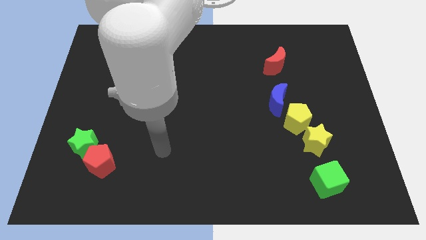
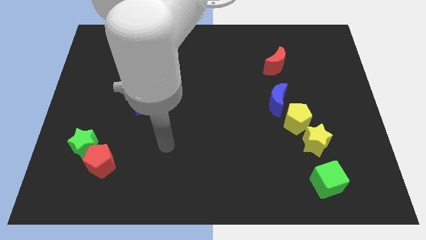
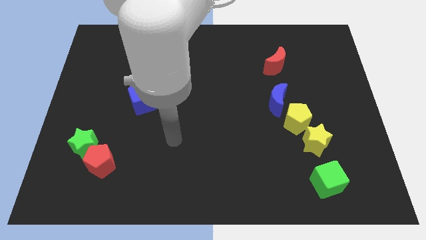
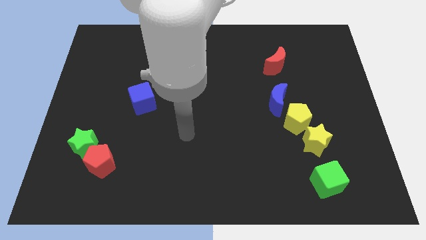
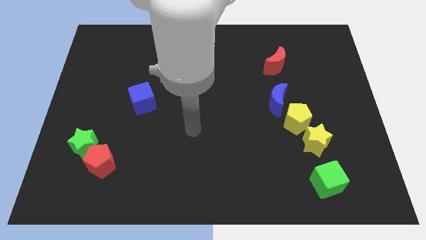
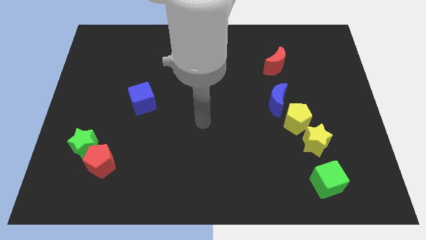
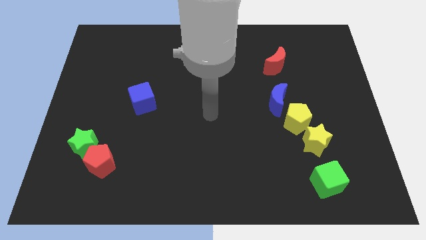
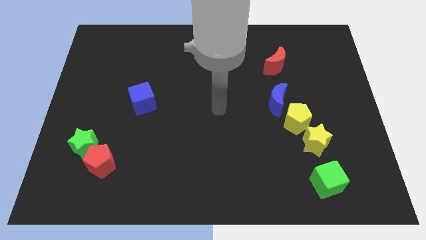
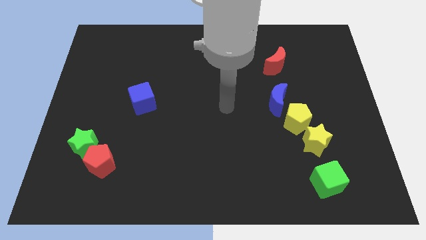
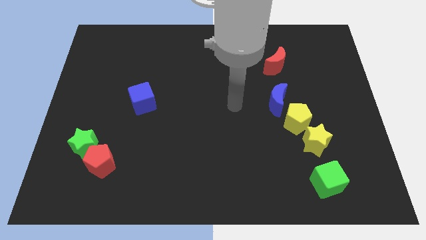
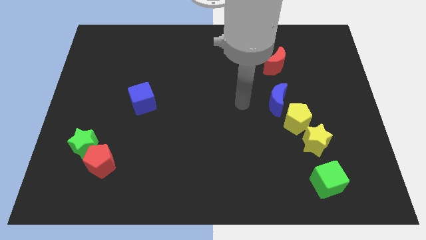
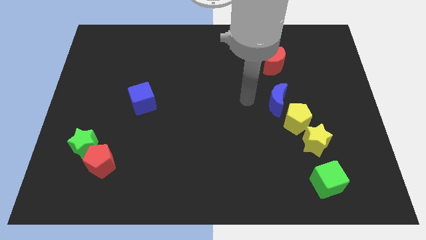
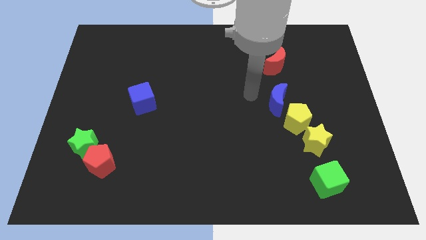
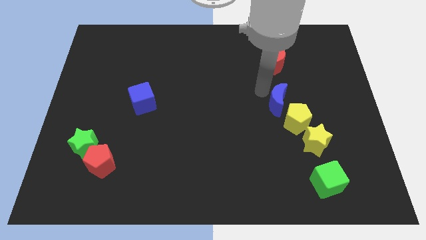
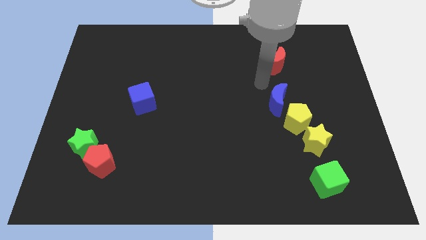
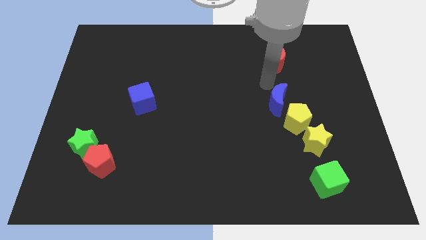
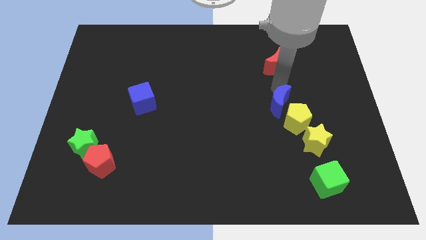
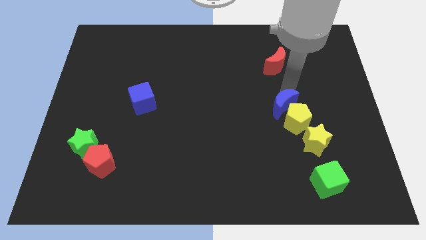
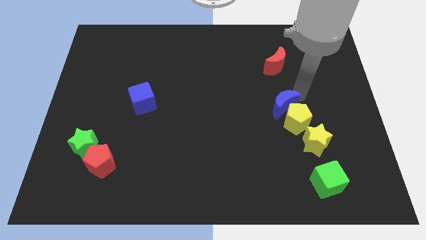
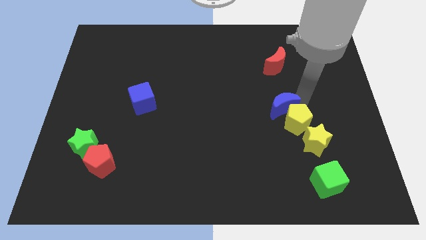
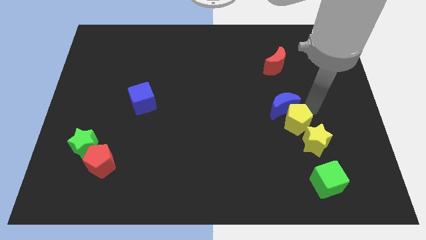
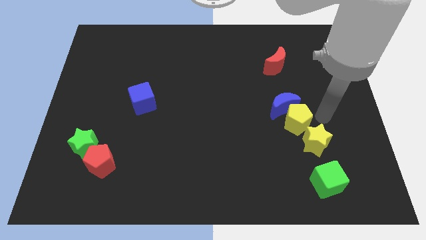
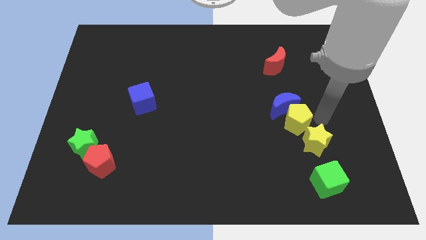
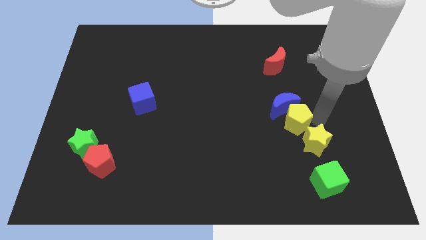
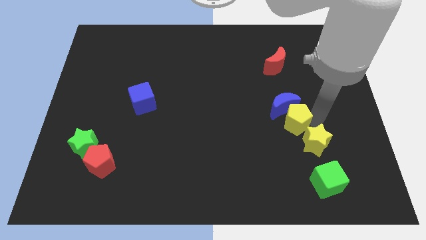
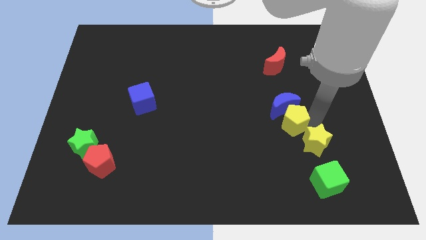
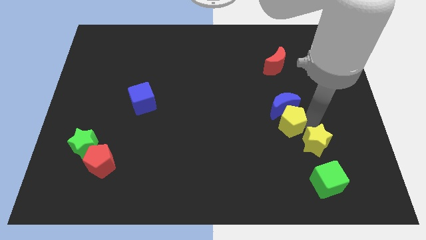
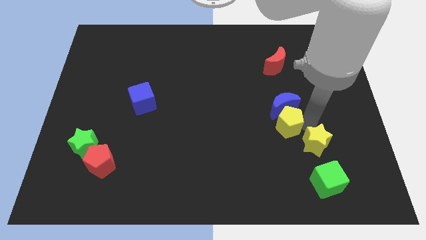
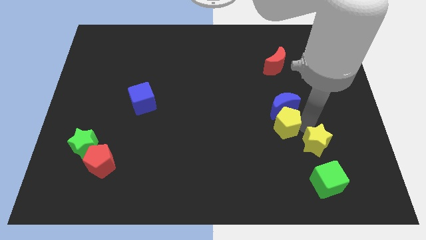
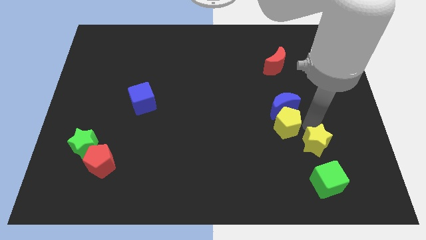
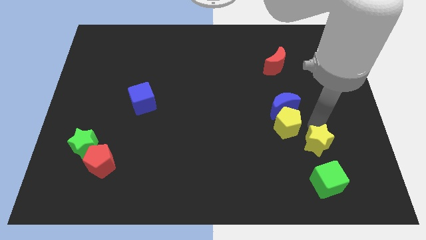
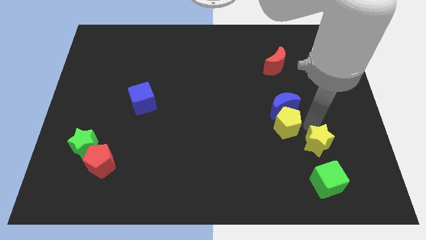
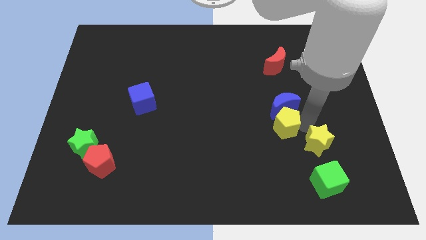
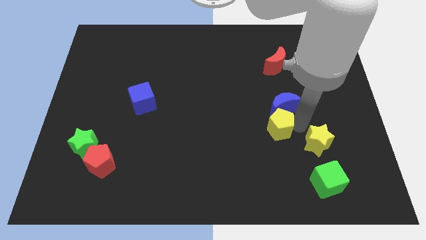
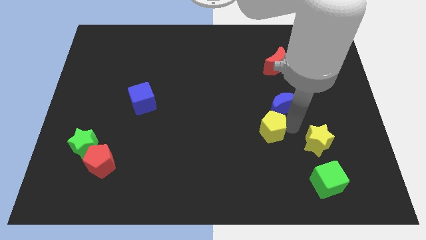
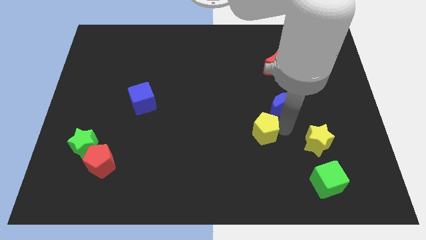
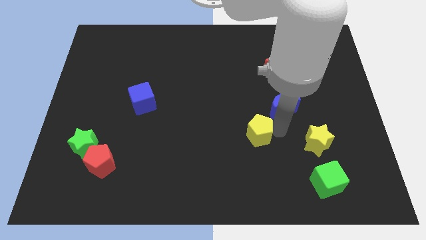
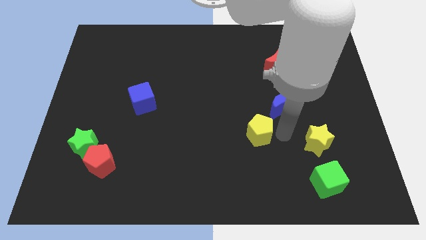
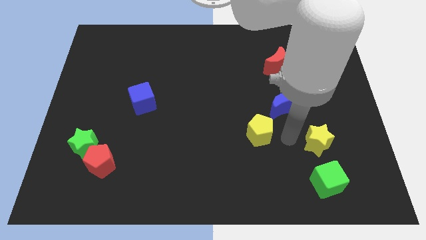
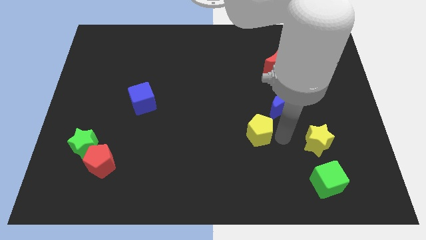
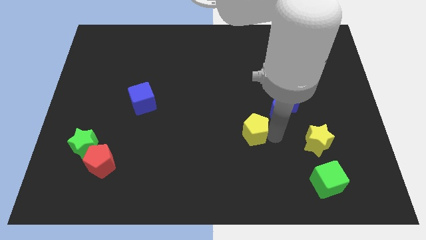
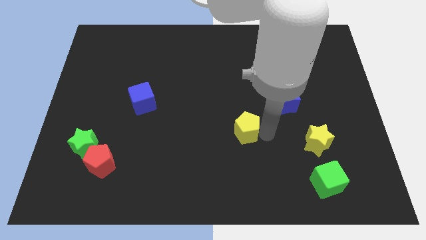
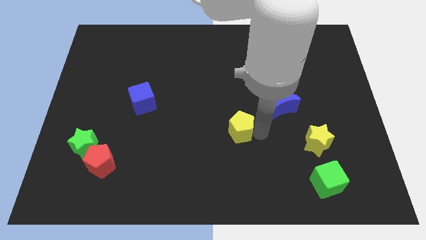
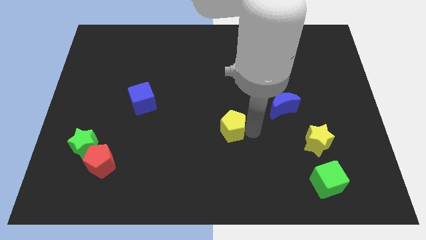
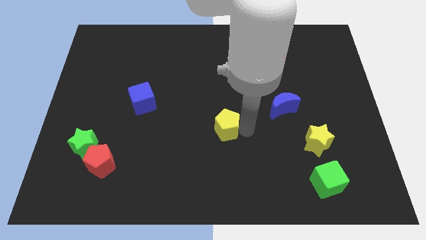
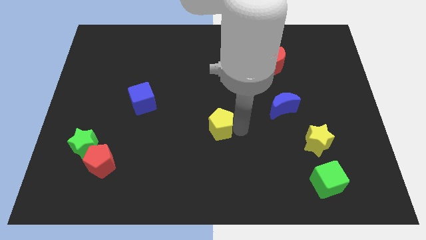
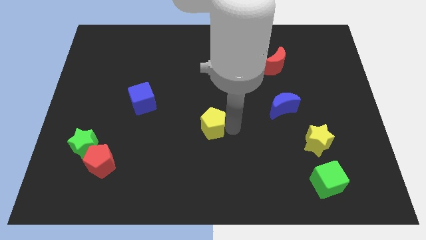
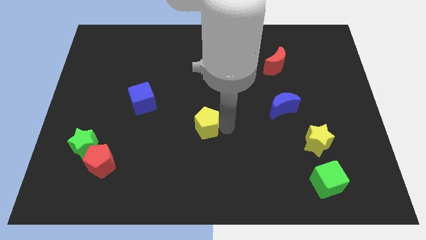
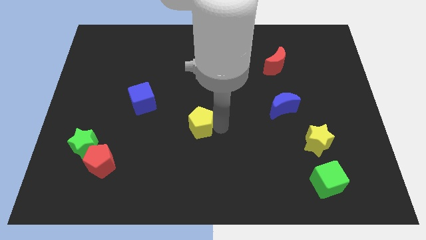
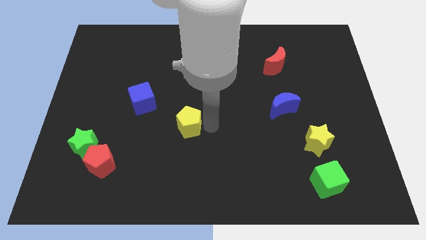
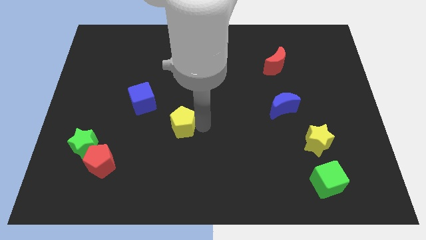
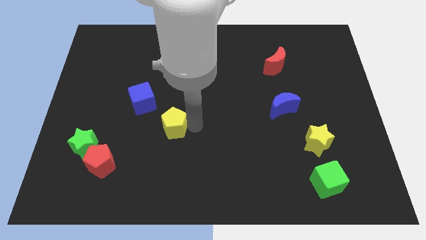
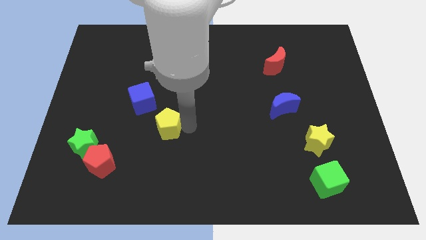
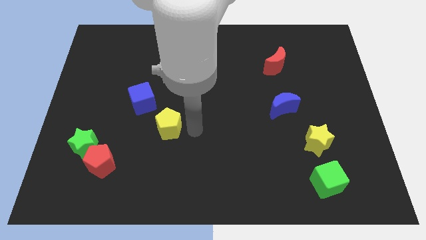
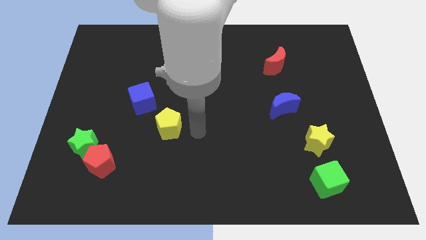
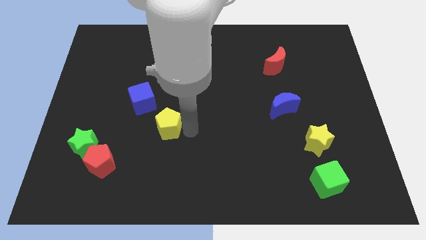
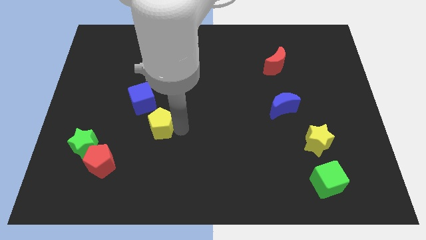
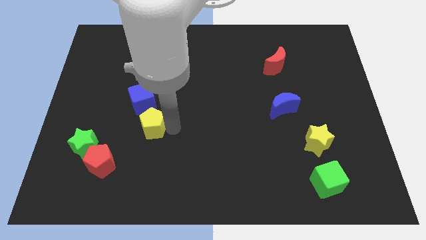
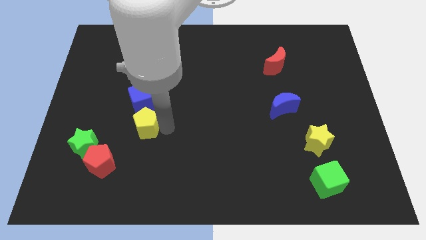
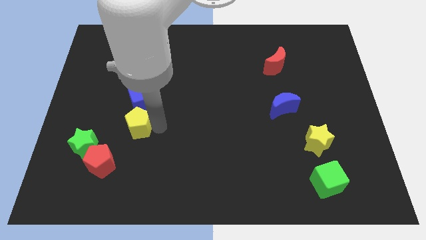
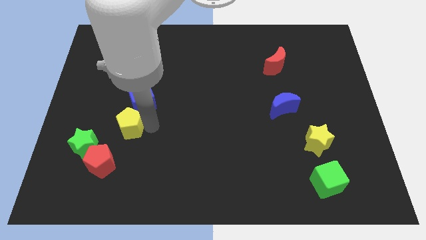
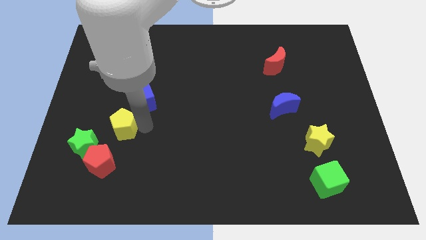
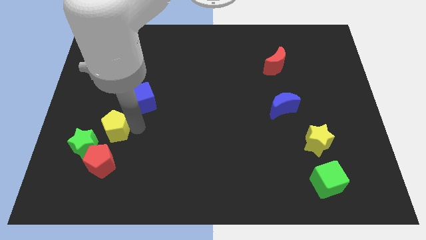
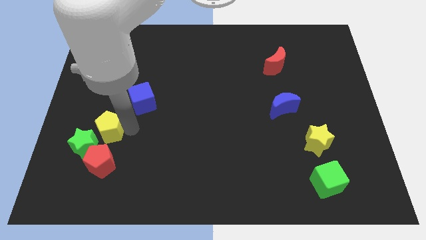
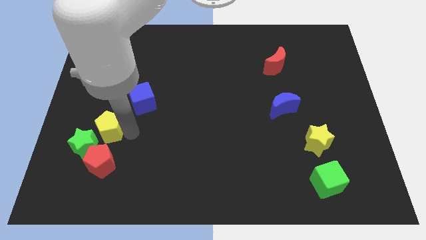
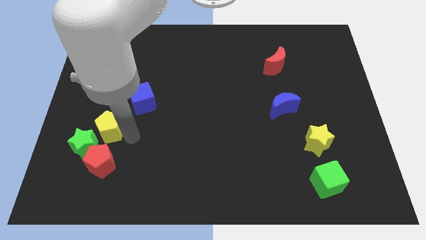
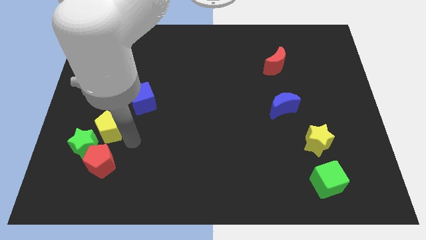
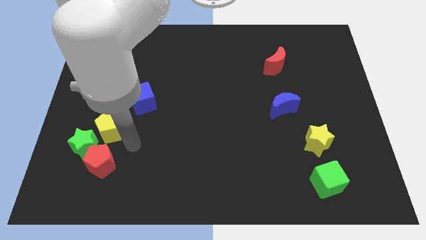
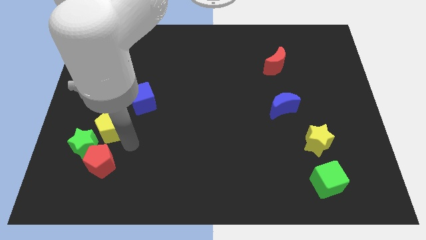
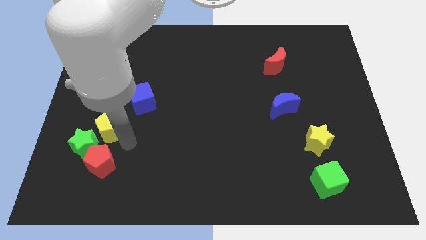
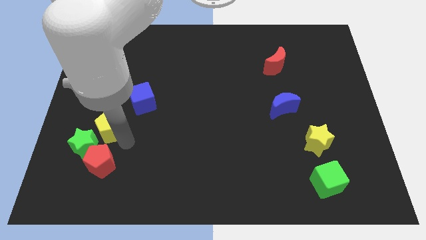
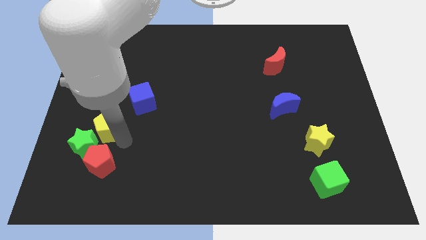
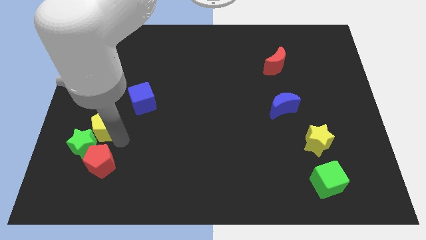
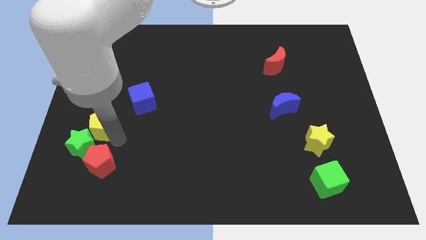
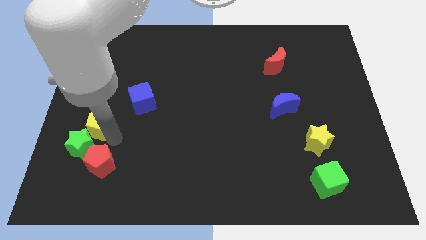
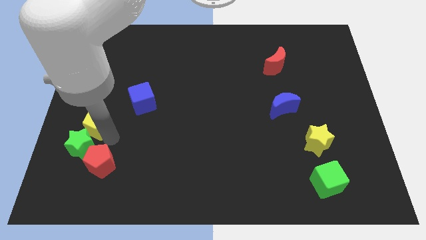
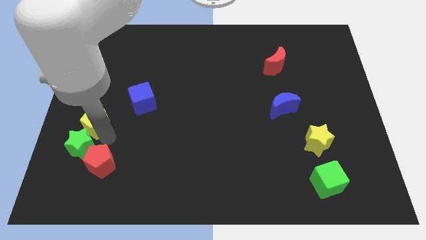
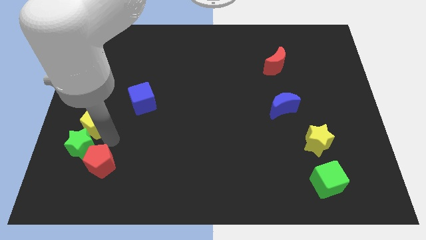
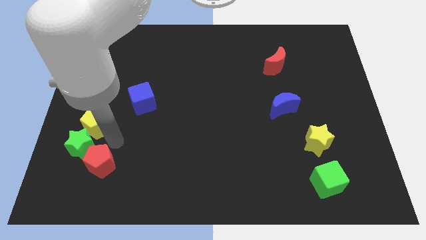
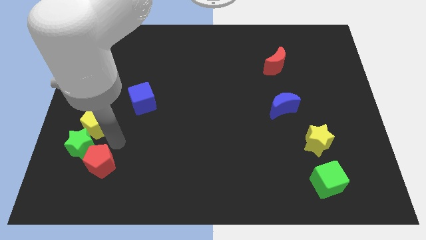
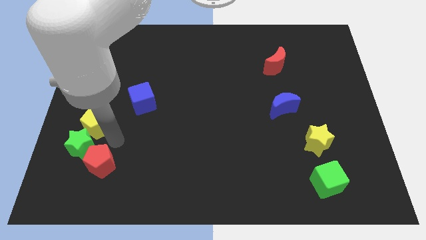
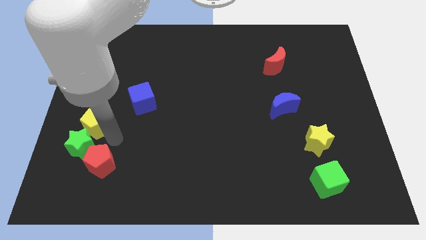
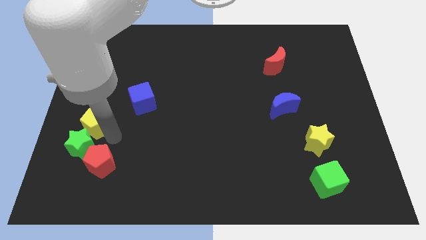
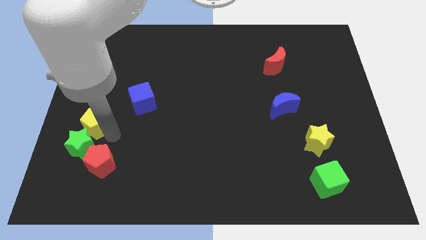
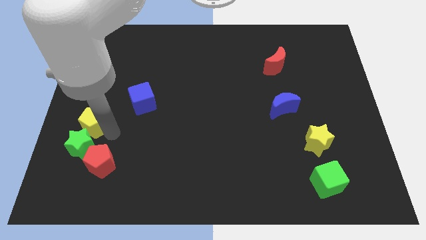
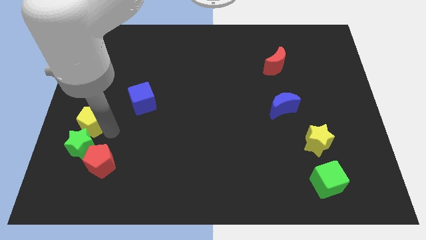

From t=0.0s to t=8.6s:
slide the yellow pentagon to the left side
